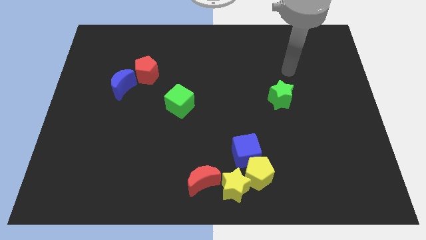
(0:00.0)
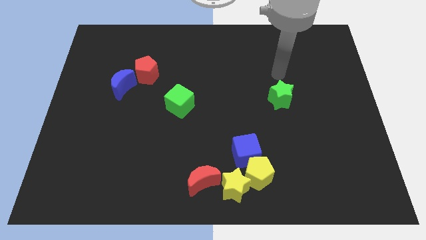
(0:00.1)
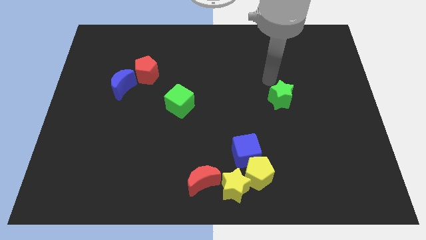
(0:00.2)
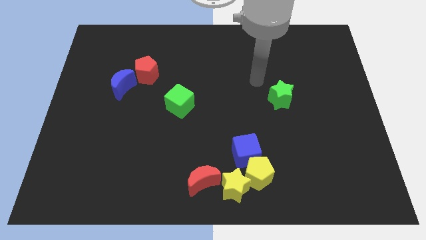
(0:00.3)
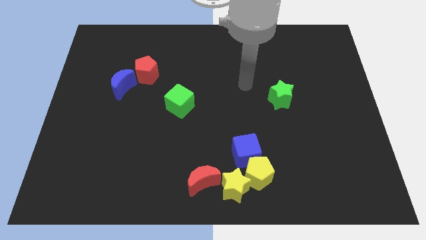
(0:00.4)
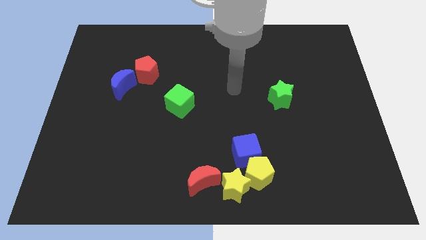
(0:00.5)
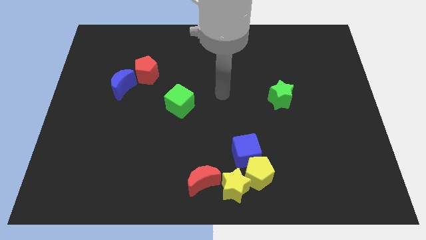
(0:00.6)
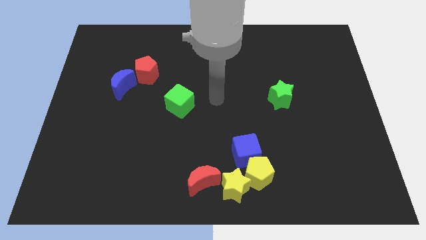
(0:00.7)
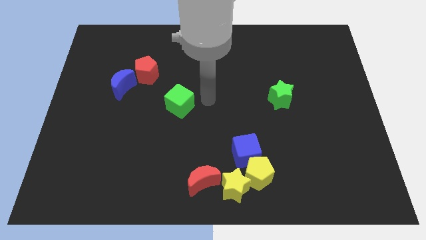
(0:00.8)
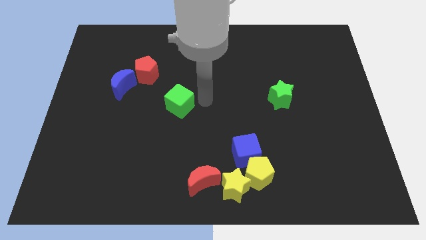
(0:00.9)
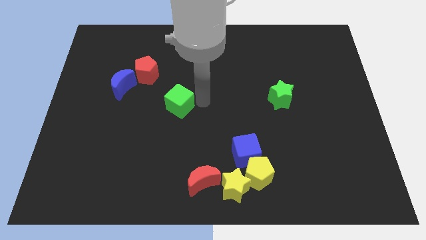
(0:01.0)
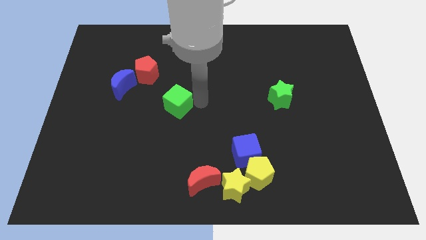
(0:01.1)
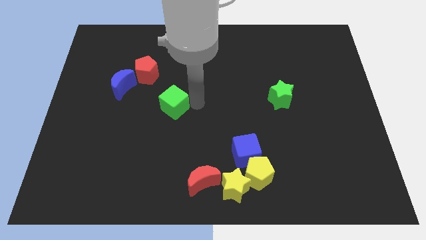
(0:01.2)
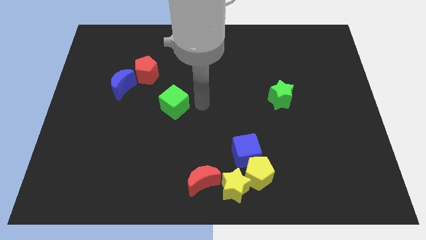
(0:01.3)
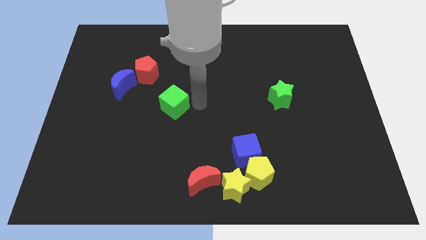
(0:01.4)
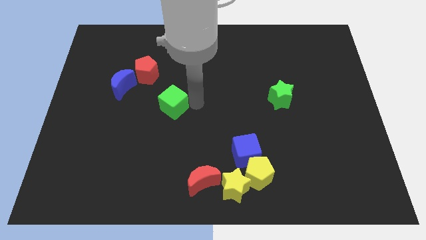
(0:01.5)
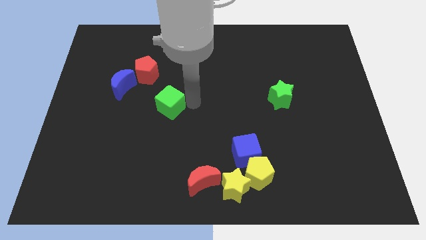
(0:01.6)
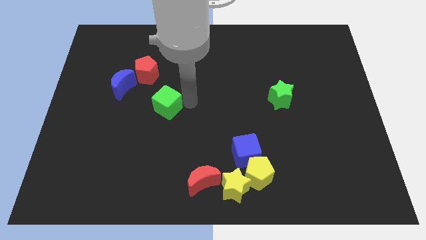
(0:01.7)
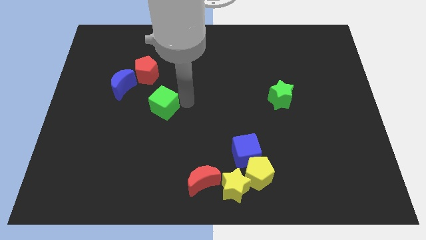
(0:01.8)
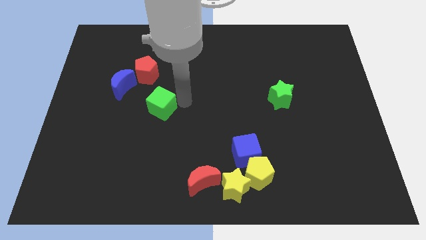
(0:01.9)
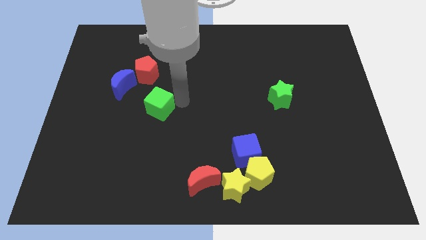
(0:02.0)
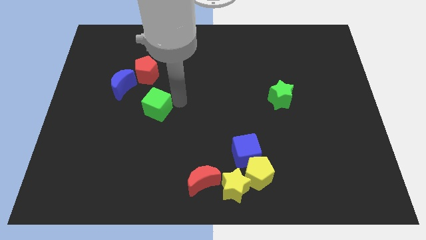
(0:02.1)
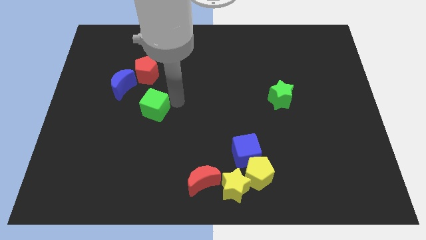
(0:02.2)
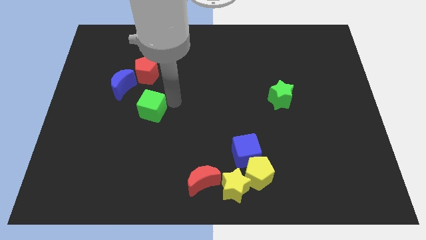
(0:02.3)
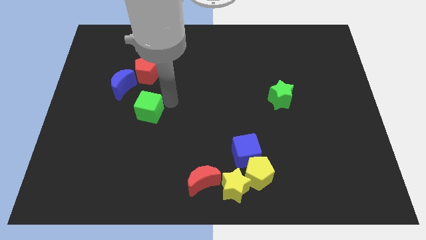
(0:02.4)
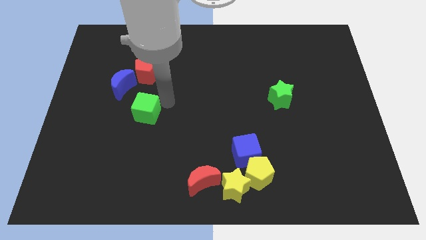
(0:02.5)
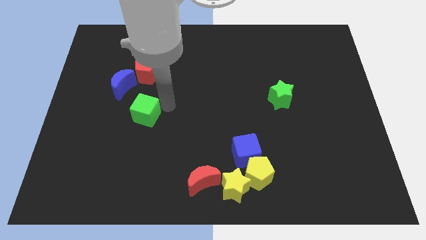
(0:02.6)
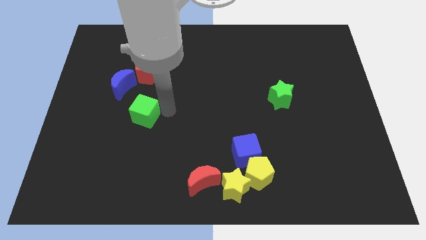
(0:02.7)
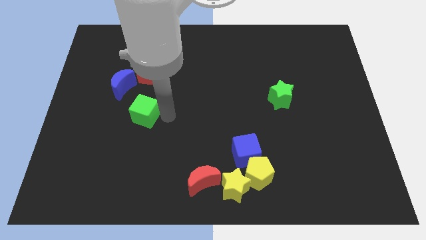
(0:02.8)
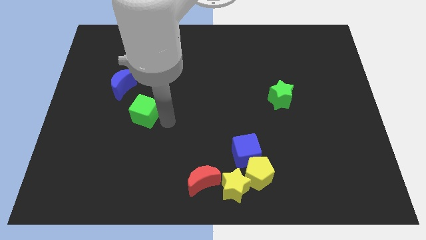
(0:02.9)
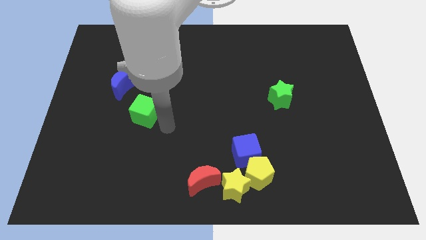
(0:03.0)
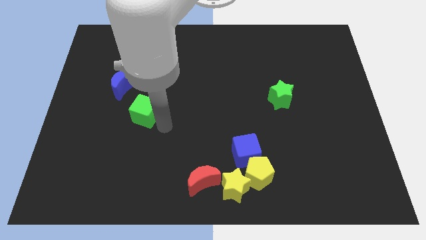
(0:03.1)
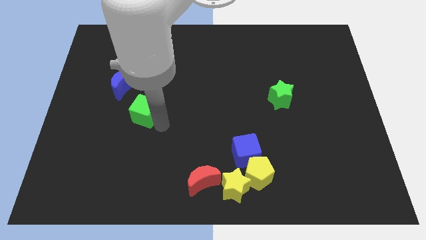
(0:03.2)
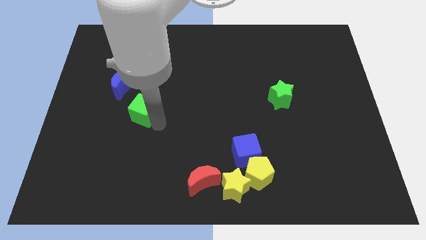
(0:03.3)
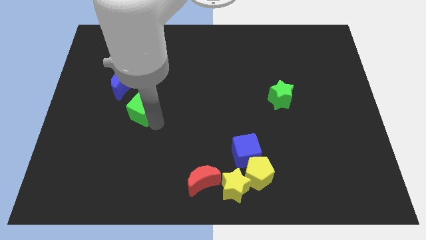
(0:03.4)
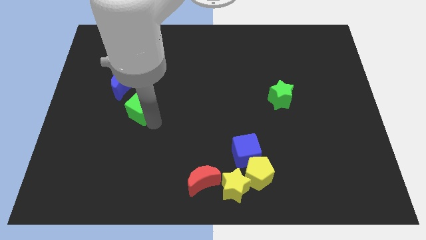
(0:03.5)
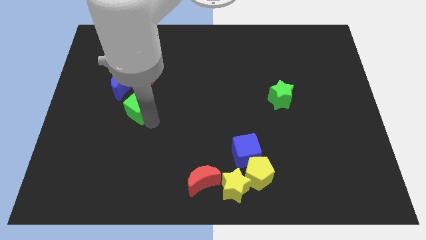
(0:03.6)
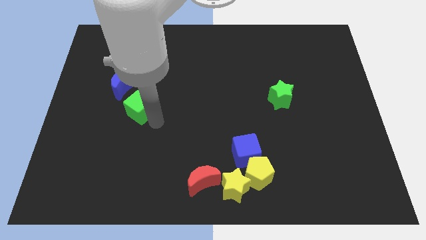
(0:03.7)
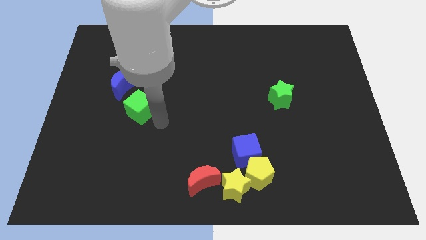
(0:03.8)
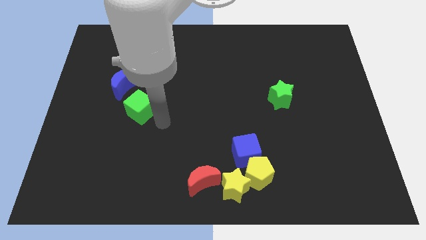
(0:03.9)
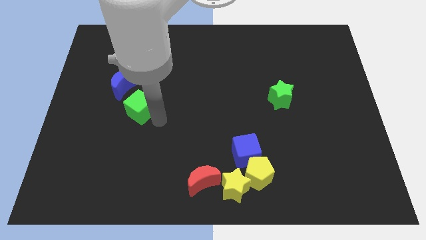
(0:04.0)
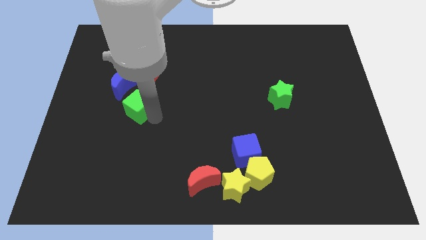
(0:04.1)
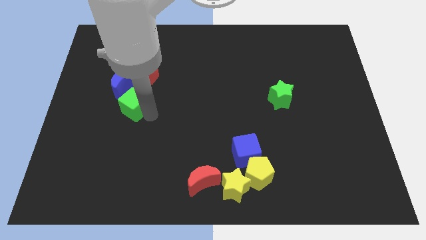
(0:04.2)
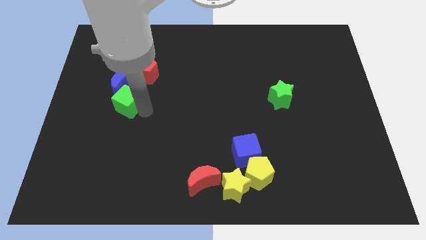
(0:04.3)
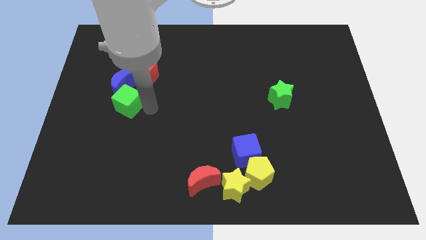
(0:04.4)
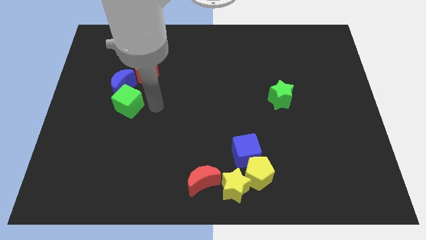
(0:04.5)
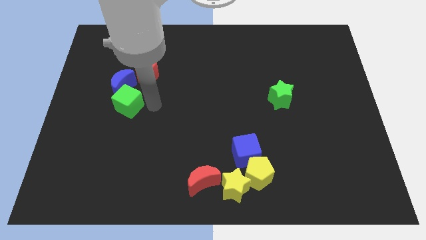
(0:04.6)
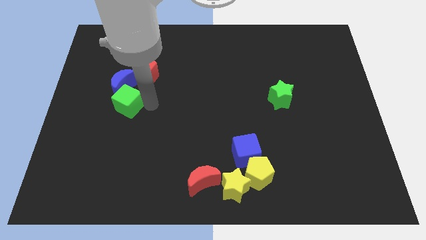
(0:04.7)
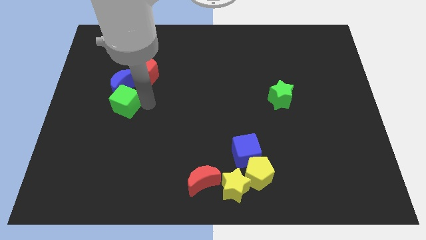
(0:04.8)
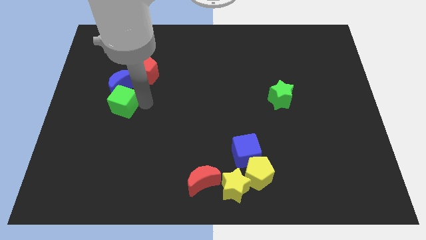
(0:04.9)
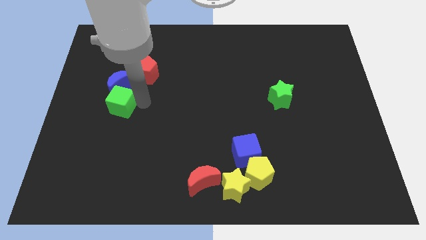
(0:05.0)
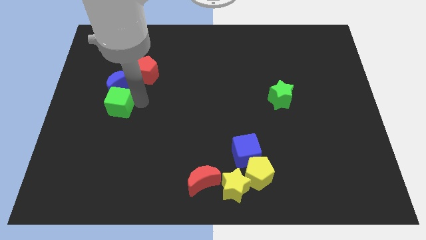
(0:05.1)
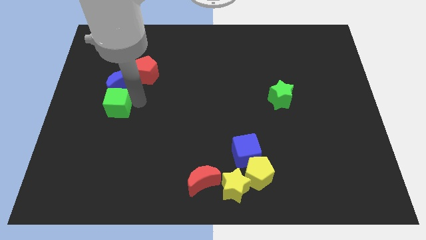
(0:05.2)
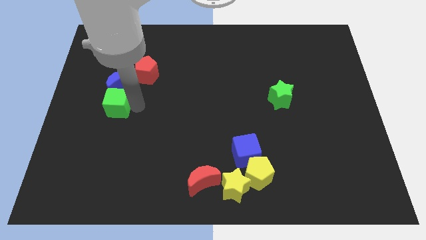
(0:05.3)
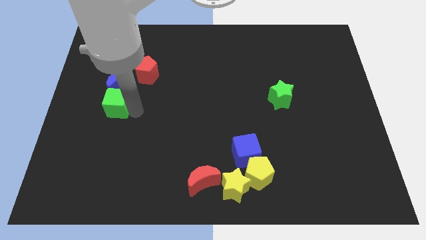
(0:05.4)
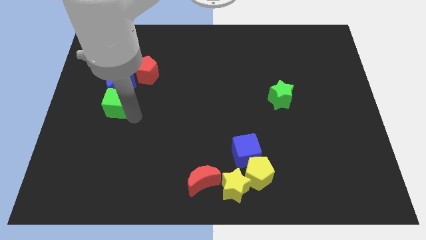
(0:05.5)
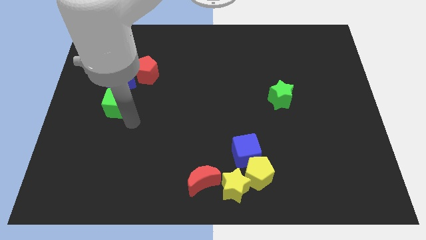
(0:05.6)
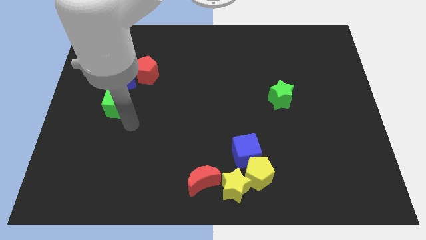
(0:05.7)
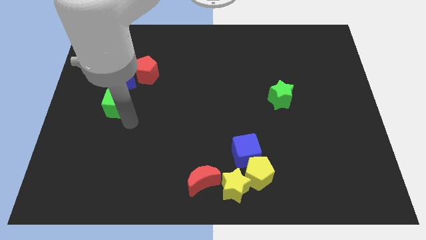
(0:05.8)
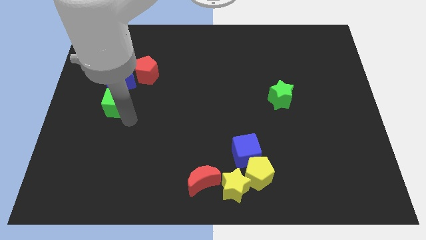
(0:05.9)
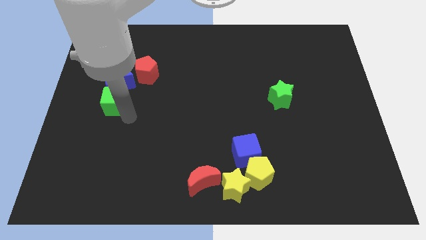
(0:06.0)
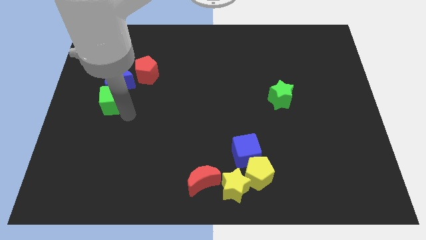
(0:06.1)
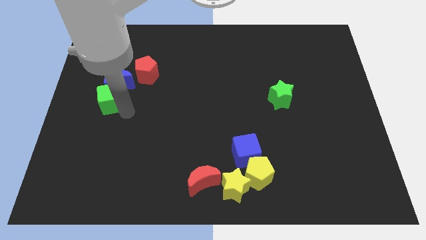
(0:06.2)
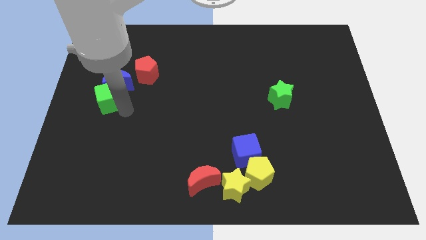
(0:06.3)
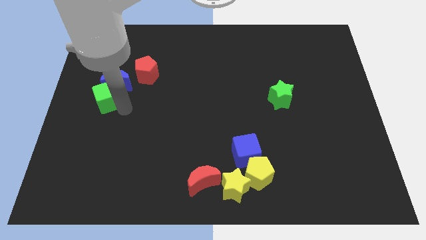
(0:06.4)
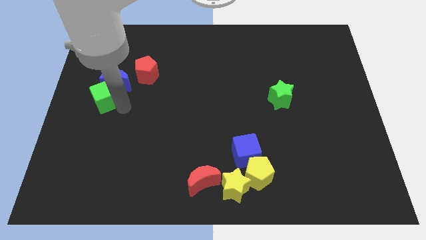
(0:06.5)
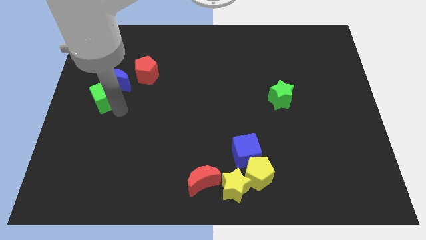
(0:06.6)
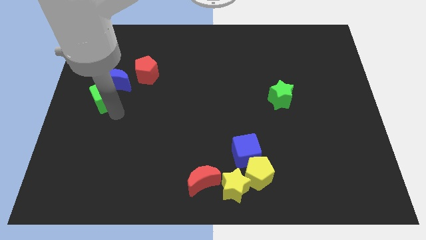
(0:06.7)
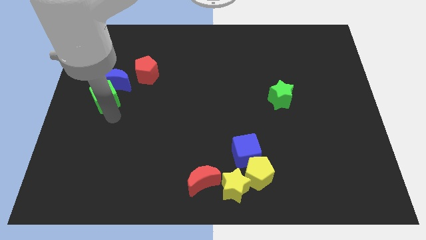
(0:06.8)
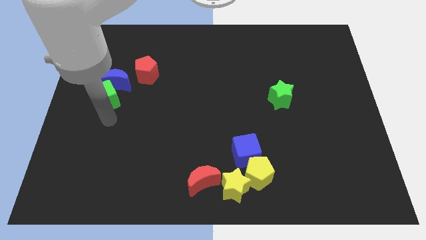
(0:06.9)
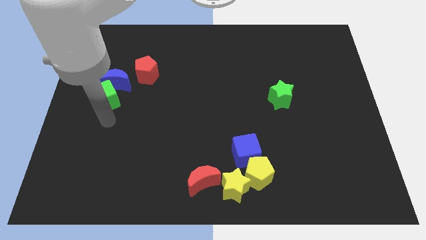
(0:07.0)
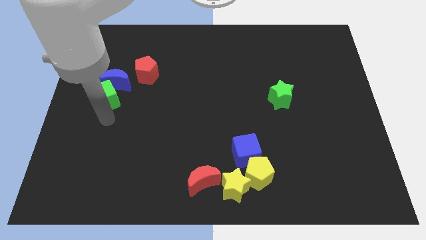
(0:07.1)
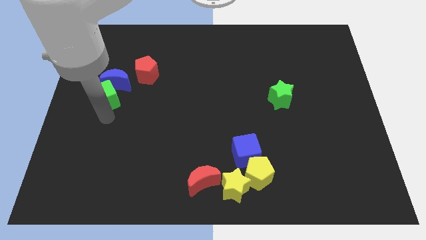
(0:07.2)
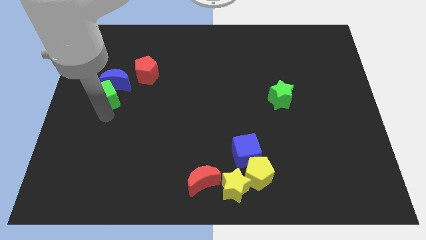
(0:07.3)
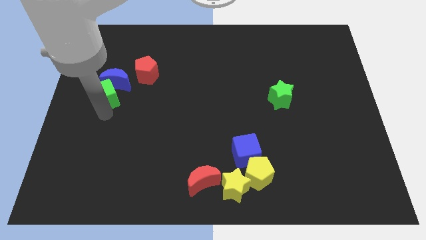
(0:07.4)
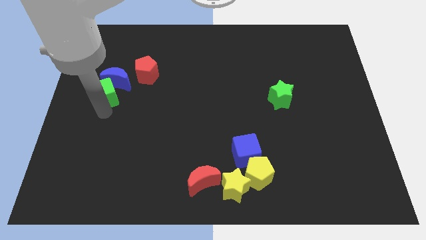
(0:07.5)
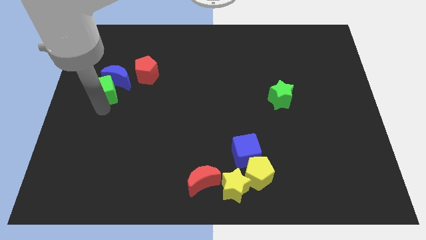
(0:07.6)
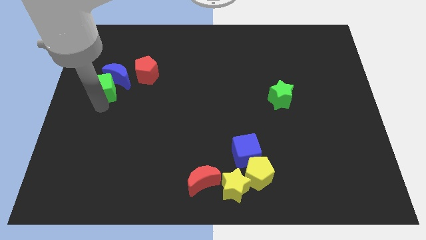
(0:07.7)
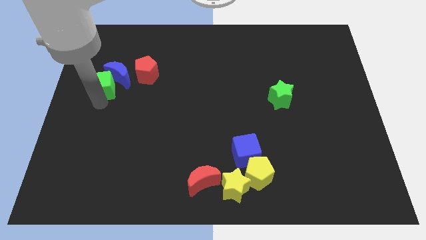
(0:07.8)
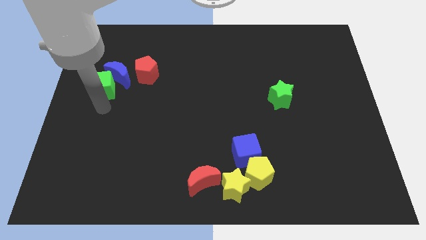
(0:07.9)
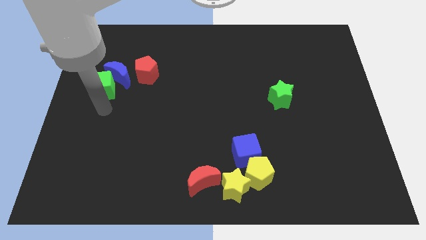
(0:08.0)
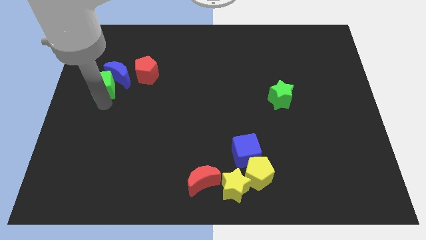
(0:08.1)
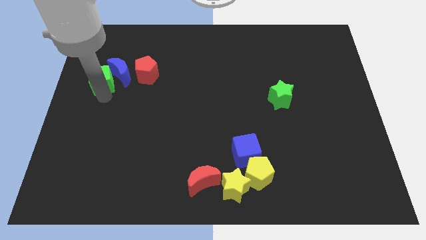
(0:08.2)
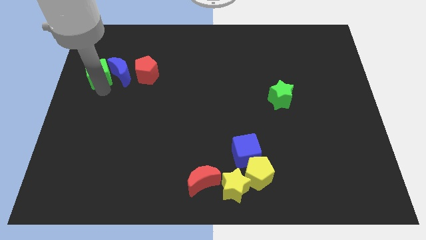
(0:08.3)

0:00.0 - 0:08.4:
move the green cube to the top left side of the blue moon
